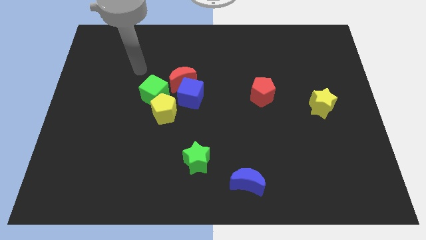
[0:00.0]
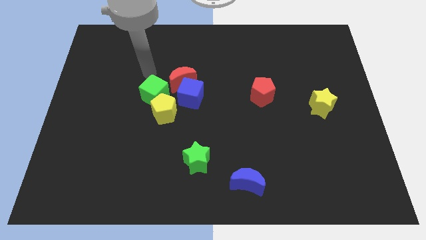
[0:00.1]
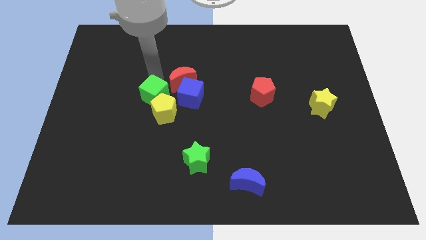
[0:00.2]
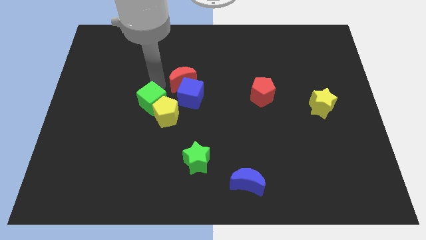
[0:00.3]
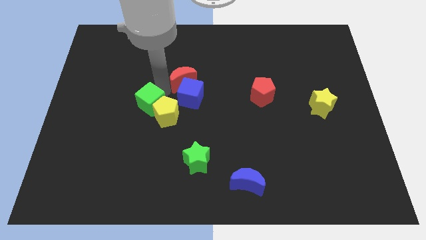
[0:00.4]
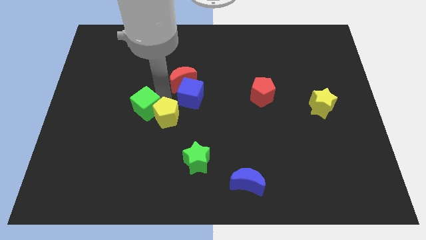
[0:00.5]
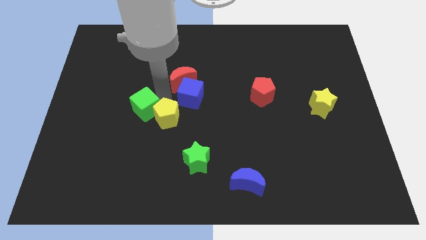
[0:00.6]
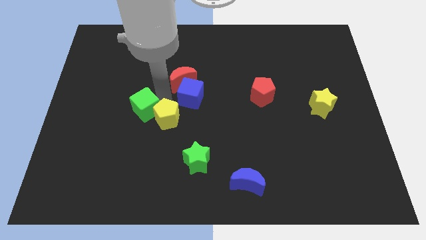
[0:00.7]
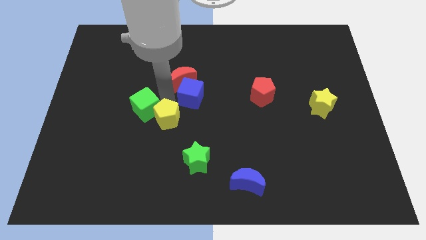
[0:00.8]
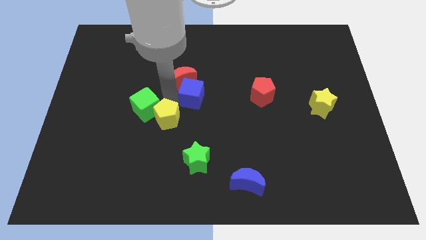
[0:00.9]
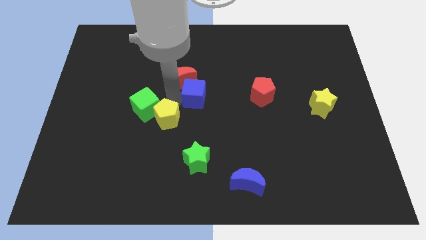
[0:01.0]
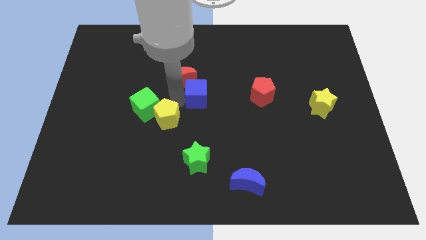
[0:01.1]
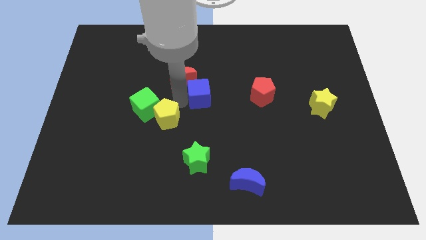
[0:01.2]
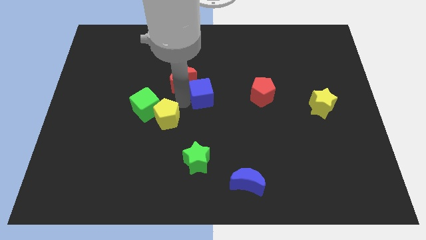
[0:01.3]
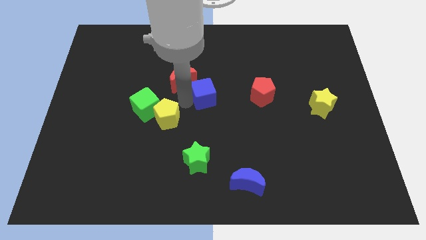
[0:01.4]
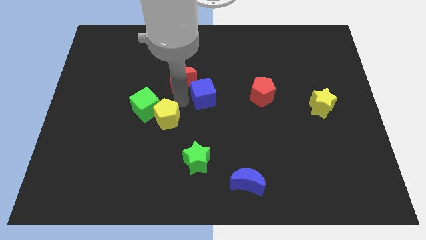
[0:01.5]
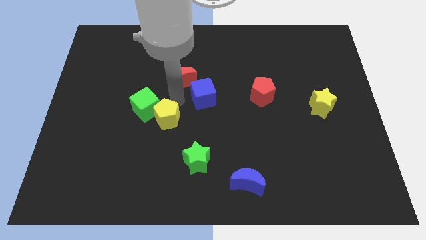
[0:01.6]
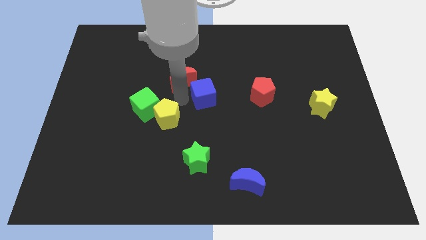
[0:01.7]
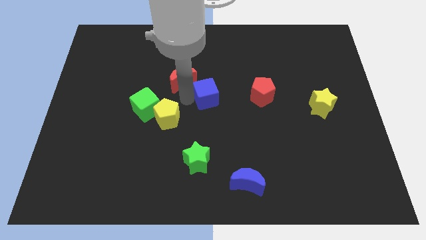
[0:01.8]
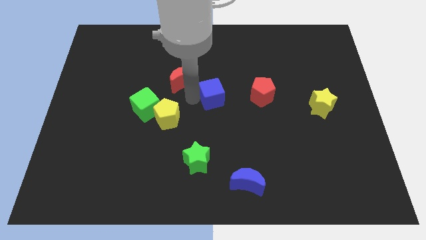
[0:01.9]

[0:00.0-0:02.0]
pull the blue cube apart from the red moon, yellow pentagon, and green cube

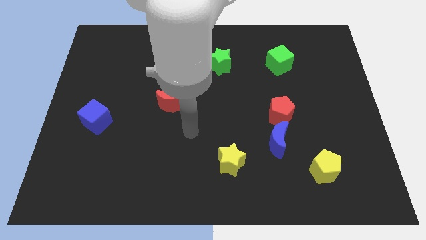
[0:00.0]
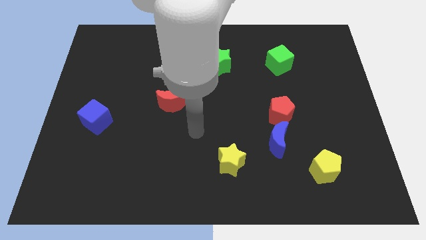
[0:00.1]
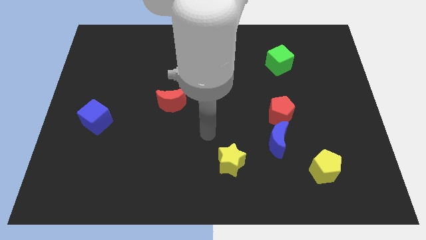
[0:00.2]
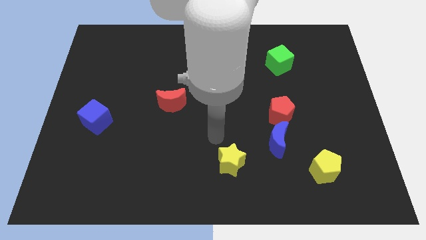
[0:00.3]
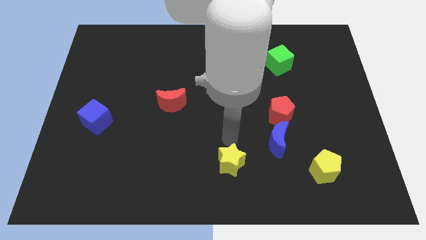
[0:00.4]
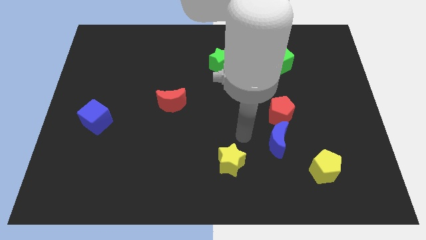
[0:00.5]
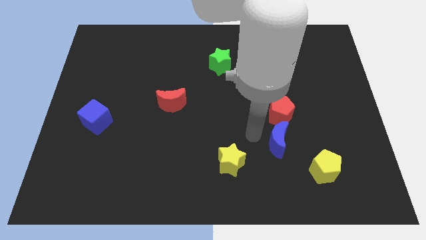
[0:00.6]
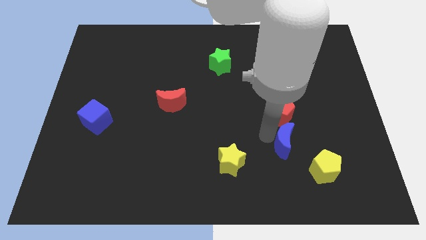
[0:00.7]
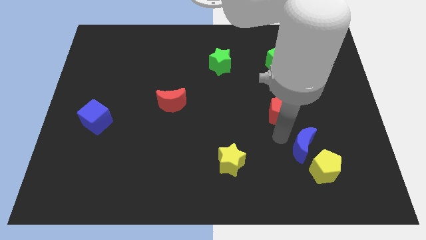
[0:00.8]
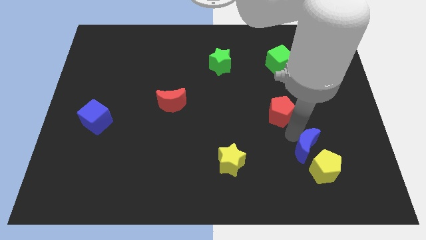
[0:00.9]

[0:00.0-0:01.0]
pull the red pentagon apart from the blue moon

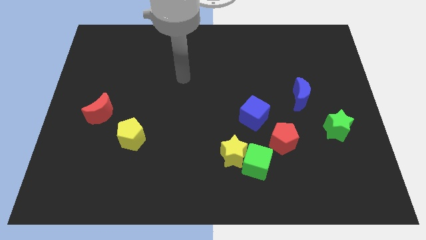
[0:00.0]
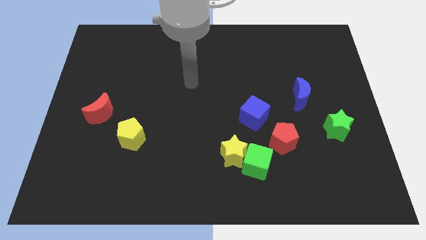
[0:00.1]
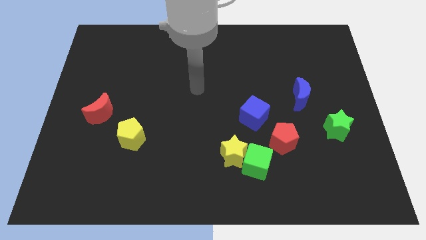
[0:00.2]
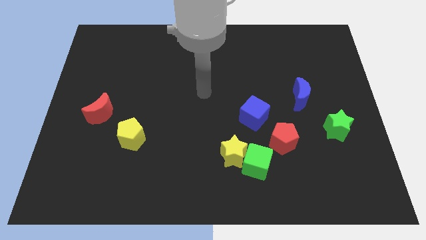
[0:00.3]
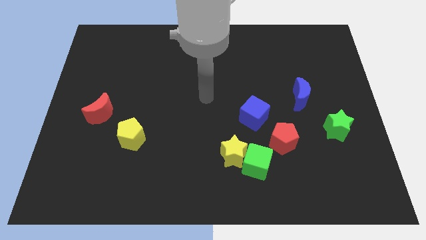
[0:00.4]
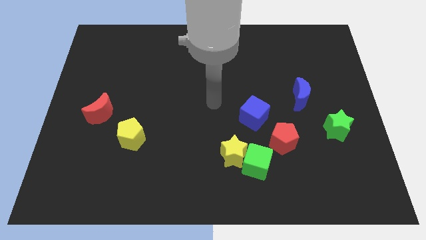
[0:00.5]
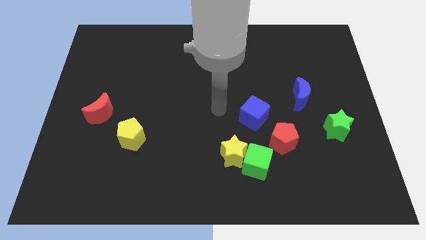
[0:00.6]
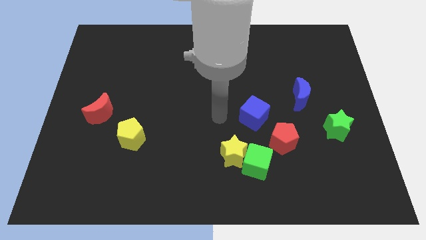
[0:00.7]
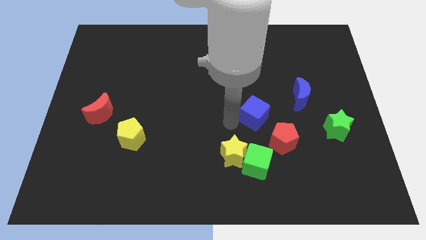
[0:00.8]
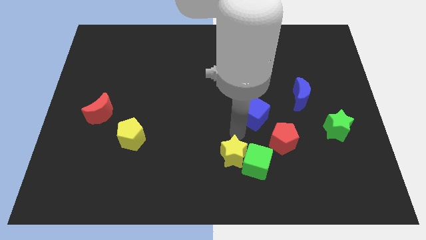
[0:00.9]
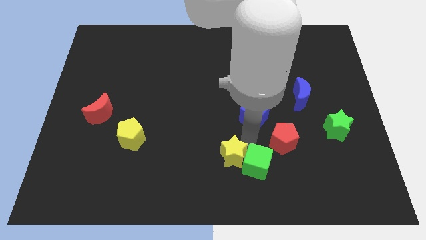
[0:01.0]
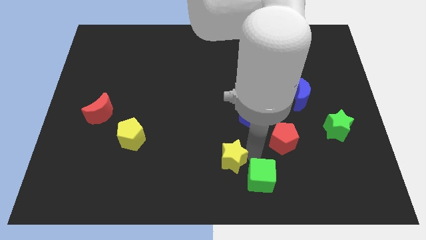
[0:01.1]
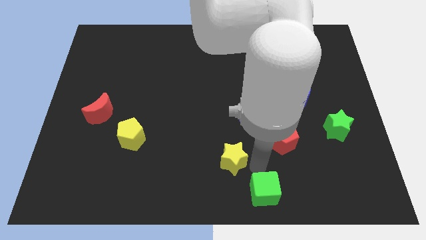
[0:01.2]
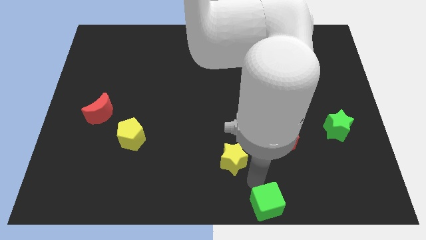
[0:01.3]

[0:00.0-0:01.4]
move the yellow star away from the green cube

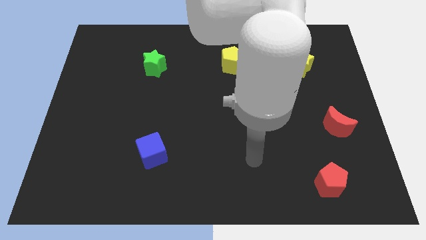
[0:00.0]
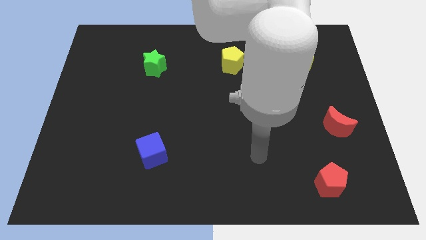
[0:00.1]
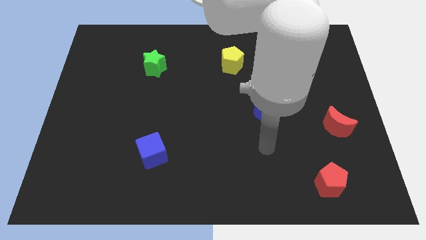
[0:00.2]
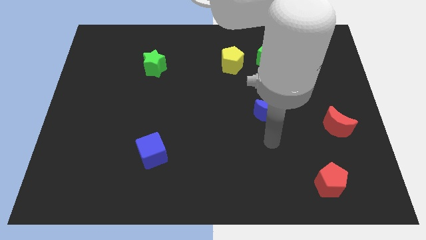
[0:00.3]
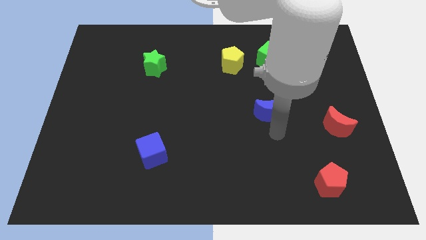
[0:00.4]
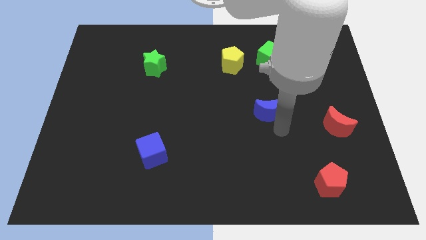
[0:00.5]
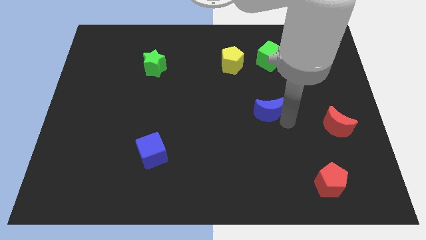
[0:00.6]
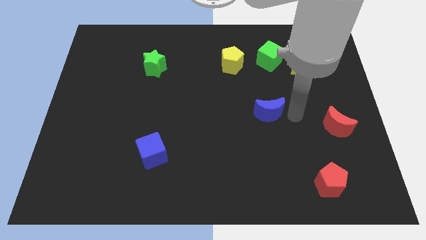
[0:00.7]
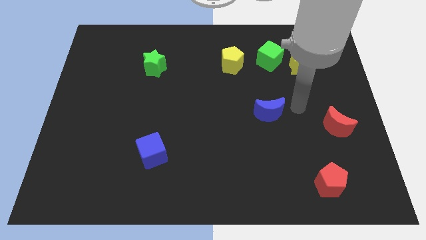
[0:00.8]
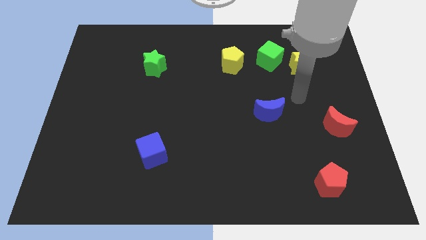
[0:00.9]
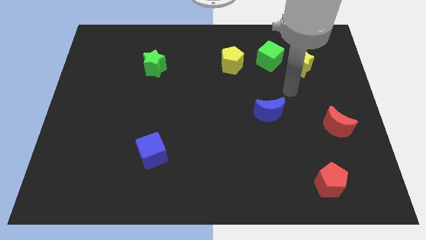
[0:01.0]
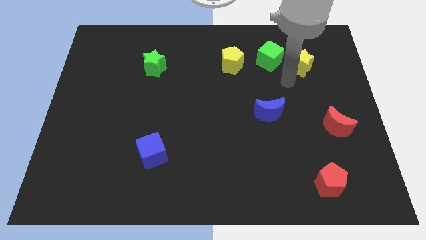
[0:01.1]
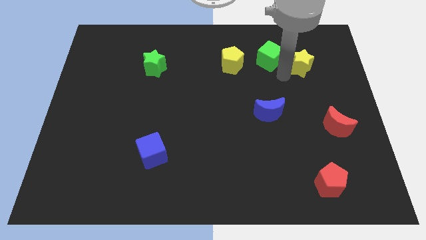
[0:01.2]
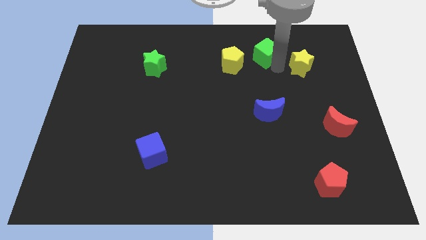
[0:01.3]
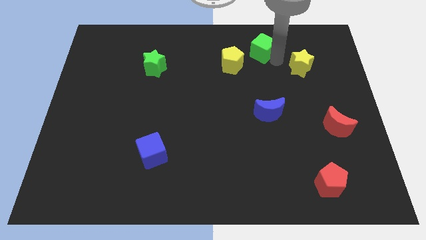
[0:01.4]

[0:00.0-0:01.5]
separate the yellow star from the green cube

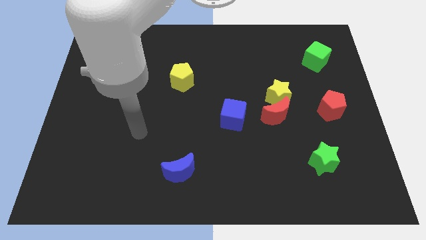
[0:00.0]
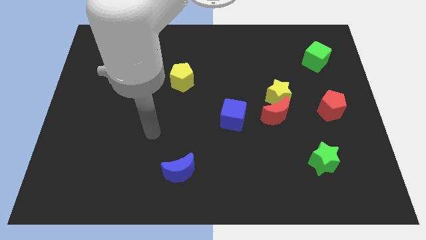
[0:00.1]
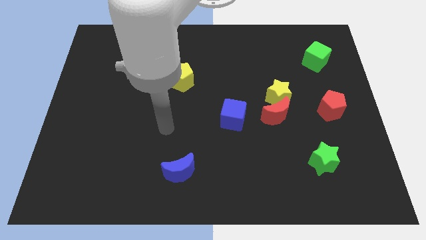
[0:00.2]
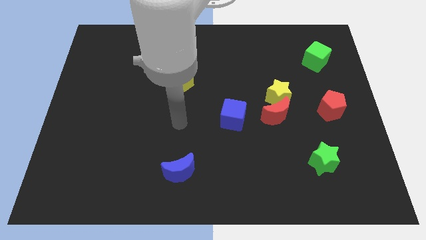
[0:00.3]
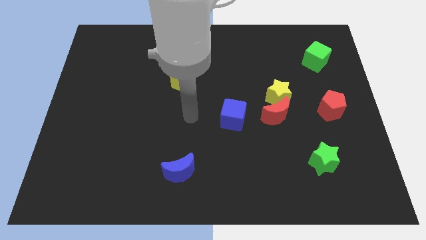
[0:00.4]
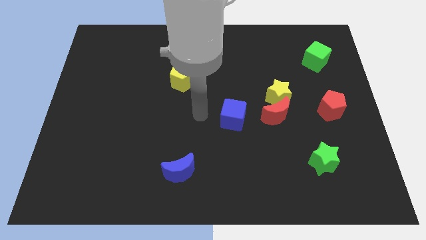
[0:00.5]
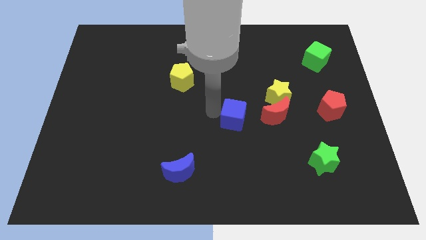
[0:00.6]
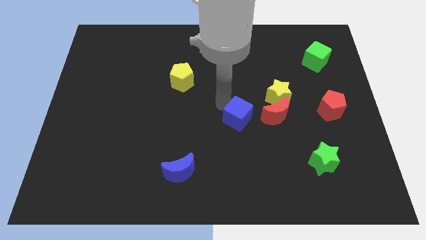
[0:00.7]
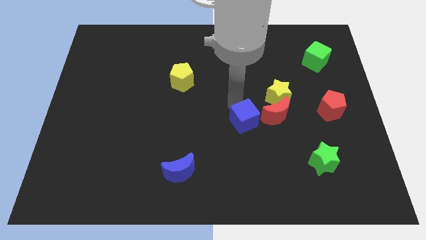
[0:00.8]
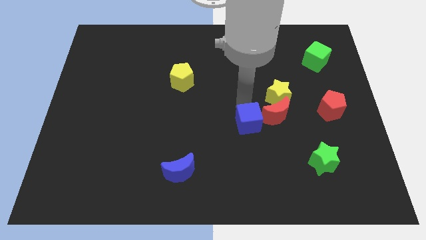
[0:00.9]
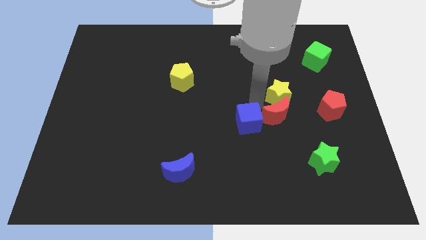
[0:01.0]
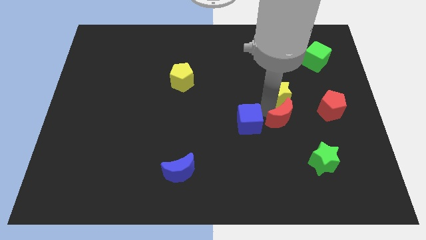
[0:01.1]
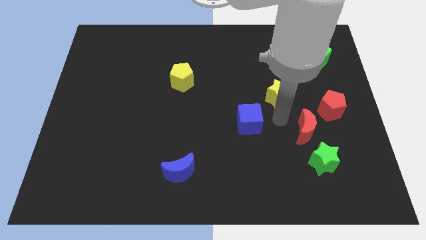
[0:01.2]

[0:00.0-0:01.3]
pull the yellow star apart from the red moon

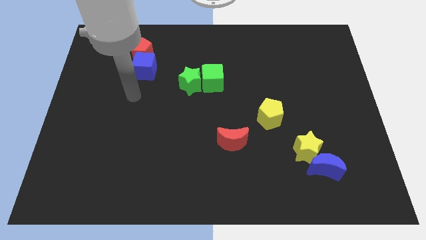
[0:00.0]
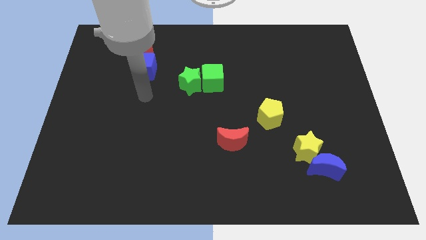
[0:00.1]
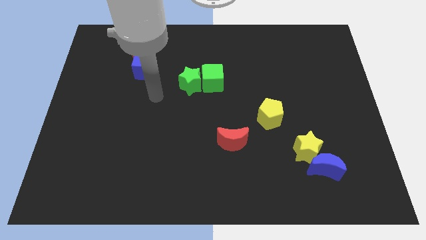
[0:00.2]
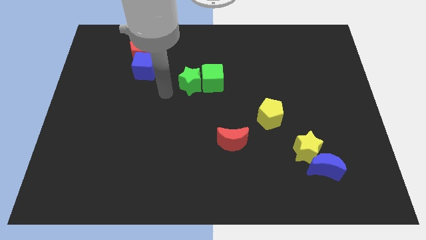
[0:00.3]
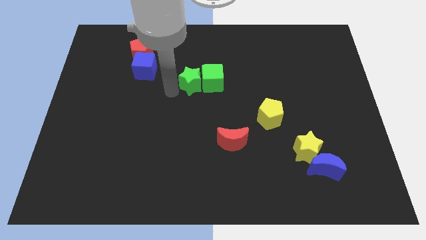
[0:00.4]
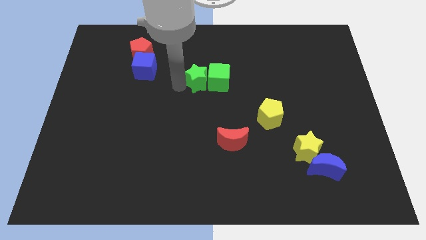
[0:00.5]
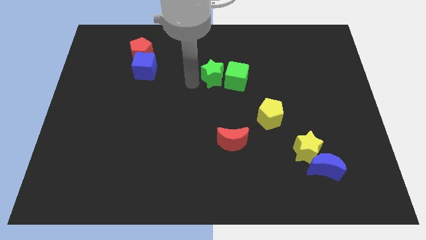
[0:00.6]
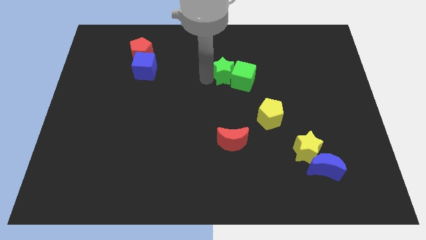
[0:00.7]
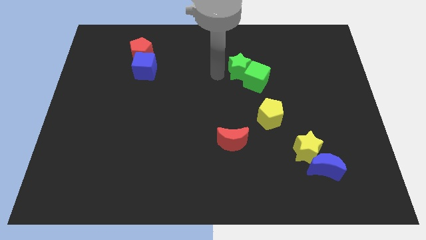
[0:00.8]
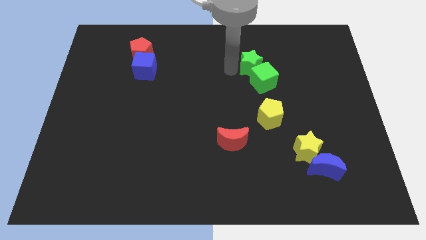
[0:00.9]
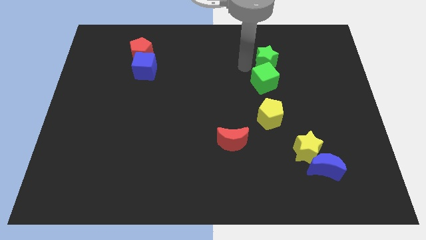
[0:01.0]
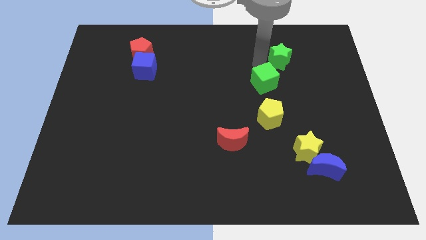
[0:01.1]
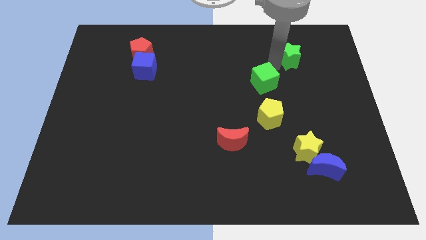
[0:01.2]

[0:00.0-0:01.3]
separate the green cube from the green star

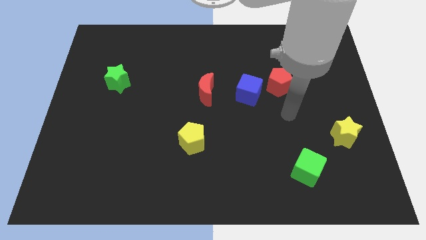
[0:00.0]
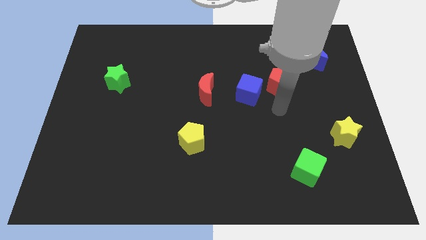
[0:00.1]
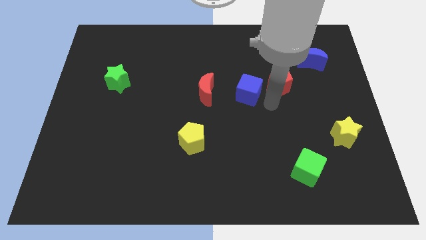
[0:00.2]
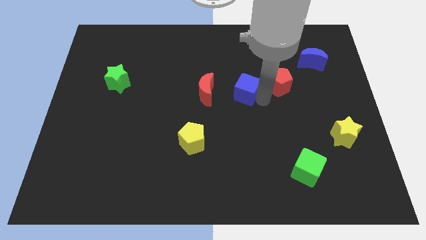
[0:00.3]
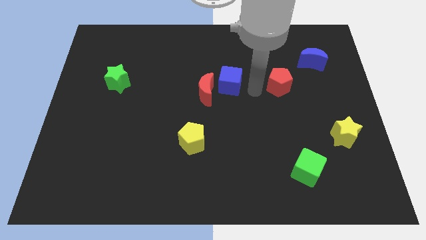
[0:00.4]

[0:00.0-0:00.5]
separate the red pentagon from the blue cube

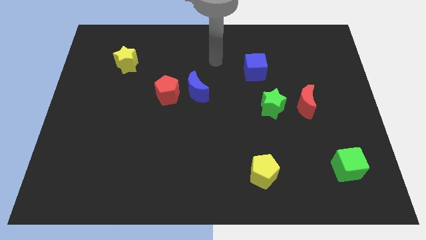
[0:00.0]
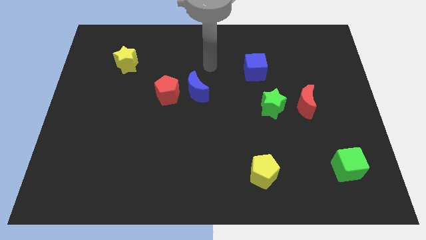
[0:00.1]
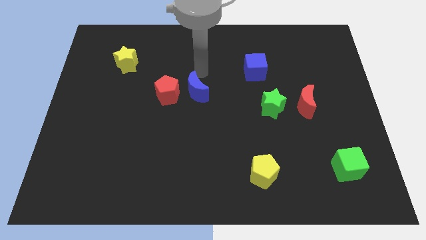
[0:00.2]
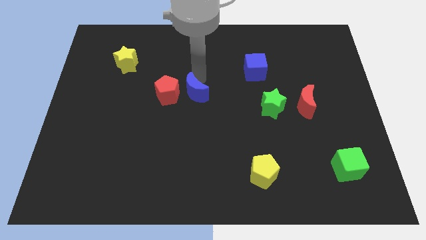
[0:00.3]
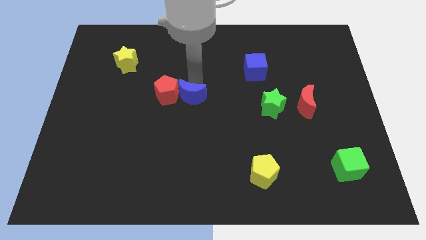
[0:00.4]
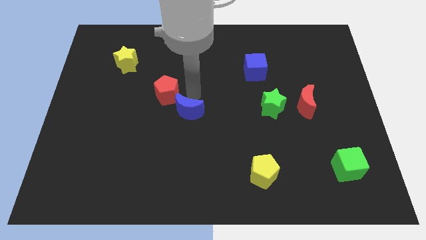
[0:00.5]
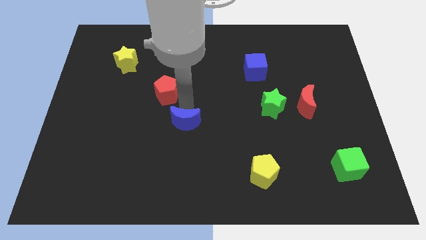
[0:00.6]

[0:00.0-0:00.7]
separate the red pentagon from the blue moon
